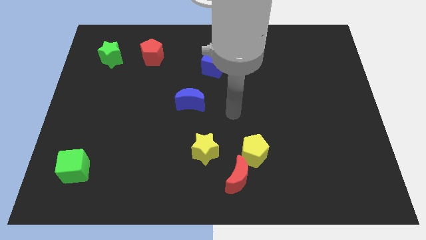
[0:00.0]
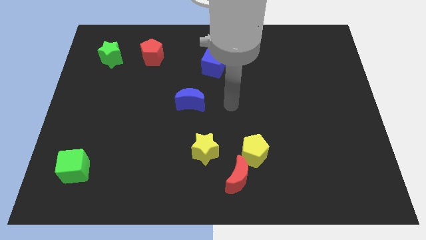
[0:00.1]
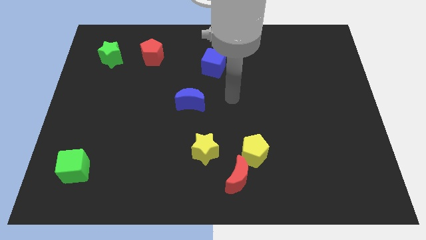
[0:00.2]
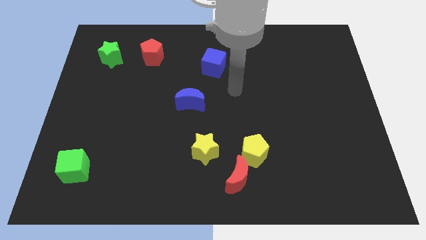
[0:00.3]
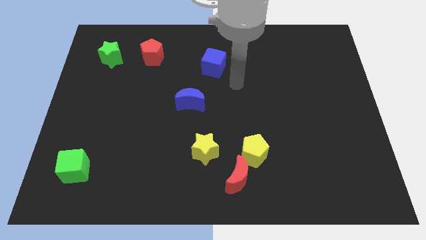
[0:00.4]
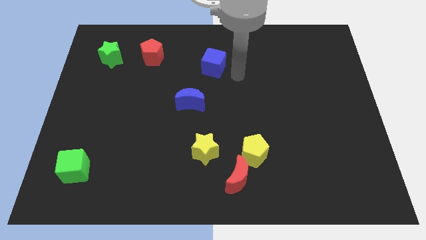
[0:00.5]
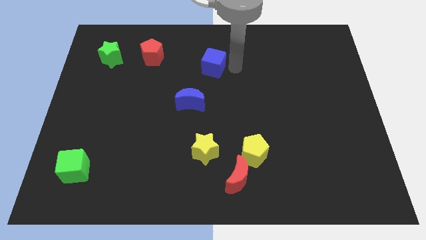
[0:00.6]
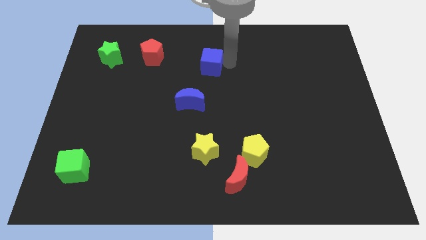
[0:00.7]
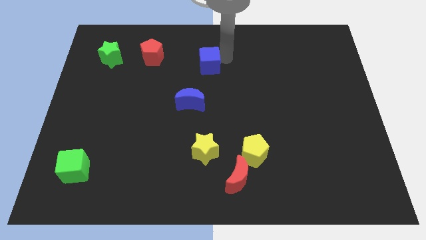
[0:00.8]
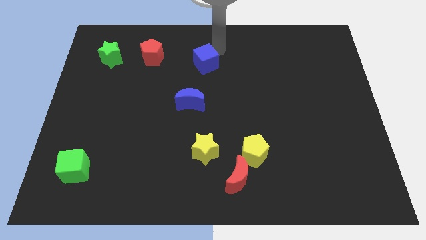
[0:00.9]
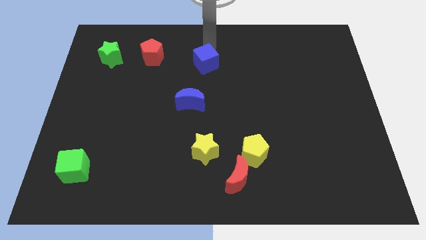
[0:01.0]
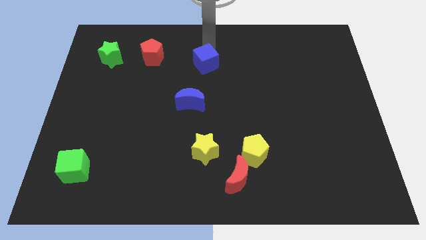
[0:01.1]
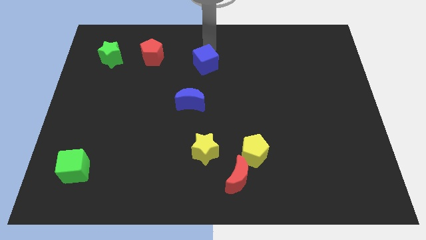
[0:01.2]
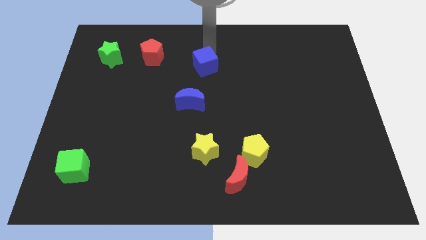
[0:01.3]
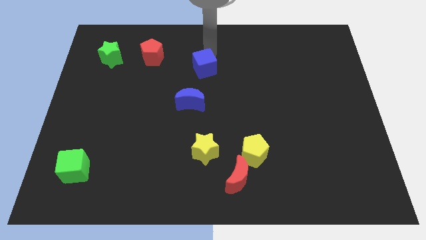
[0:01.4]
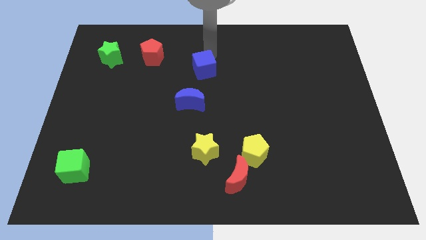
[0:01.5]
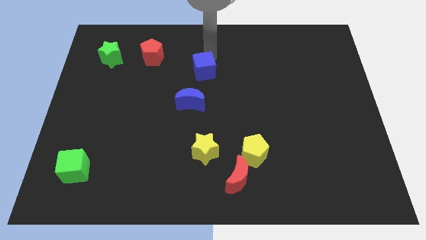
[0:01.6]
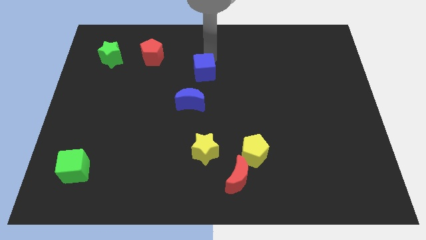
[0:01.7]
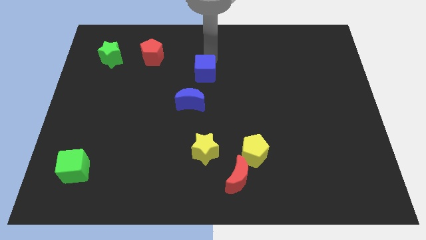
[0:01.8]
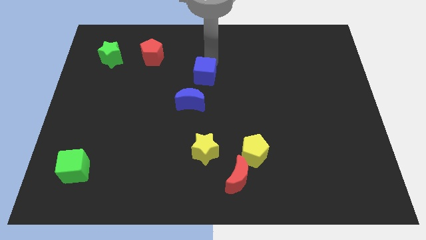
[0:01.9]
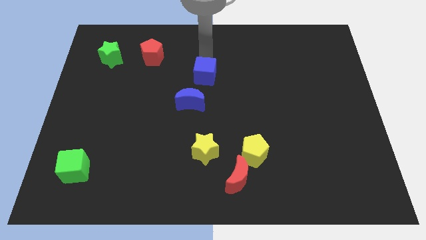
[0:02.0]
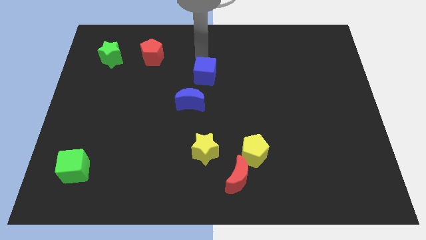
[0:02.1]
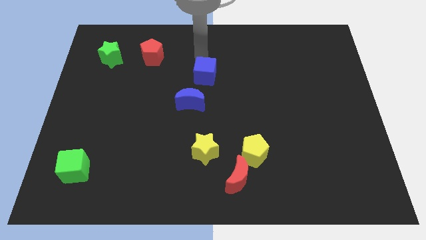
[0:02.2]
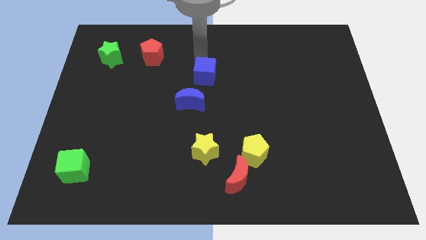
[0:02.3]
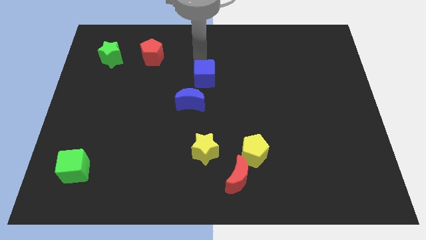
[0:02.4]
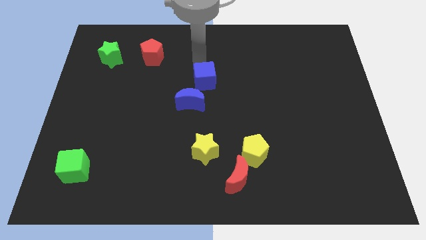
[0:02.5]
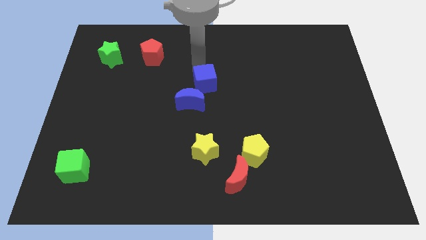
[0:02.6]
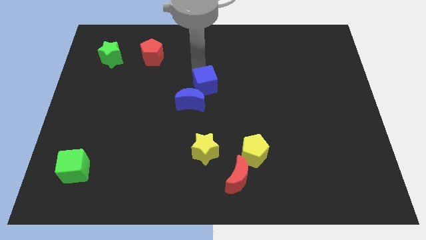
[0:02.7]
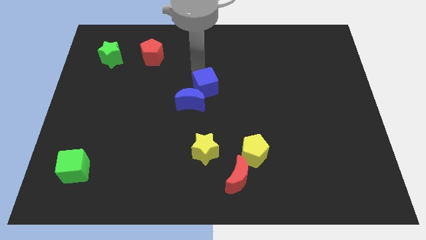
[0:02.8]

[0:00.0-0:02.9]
slightly push the blue cube down

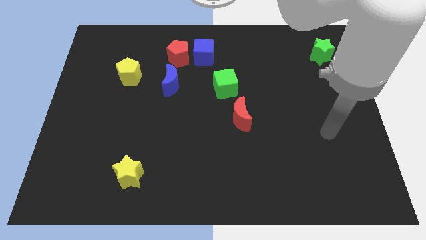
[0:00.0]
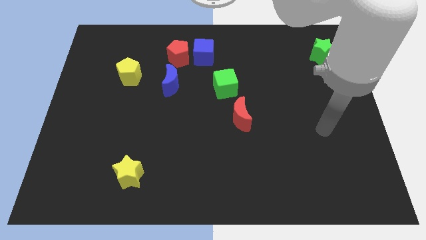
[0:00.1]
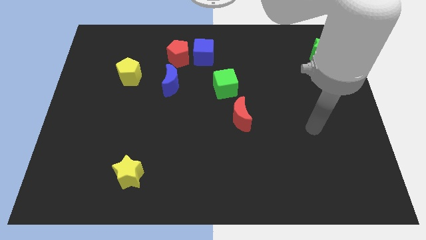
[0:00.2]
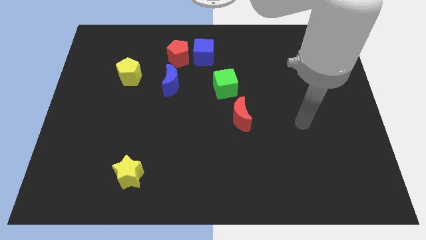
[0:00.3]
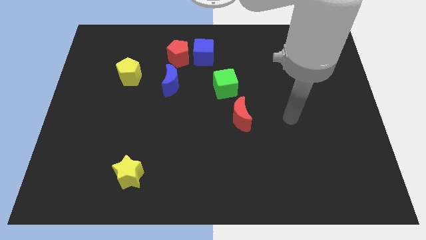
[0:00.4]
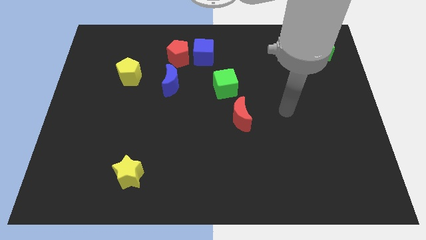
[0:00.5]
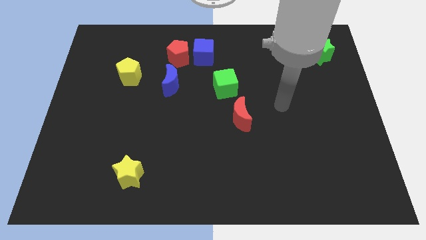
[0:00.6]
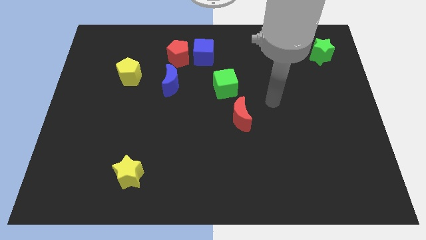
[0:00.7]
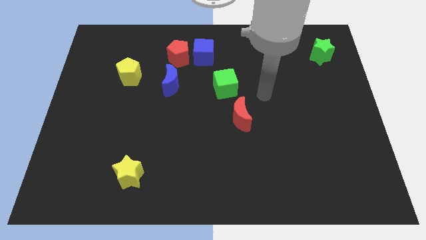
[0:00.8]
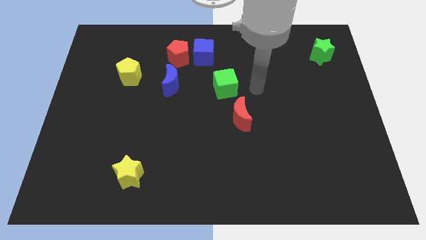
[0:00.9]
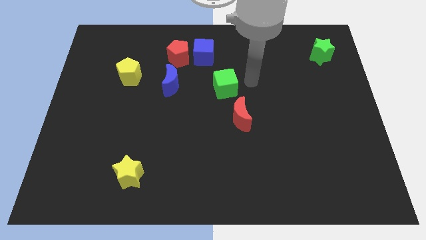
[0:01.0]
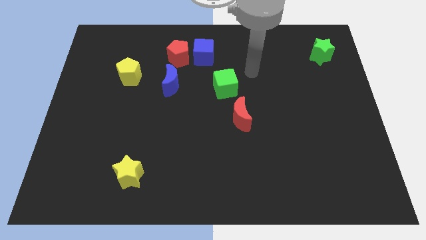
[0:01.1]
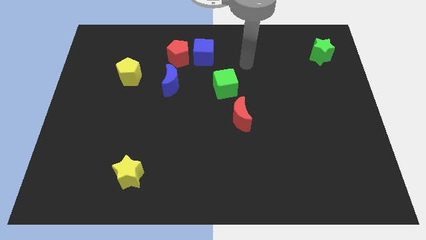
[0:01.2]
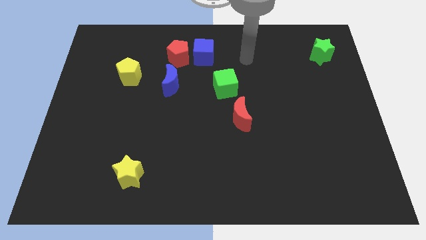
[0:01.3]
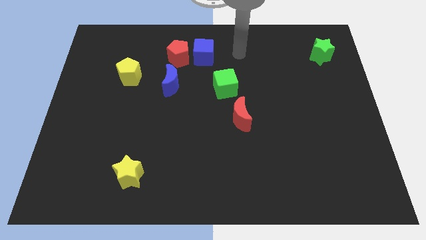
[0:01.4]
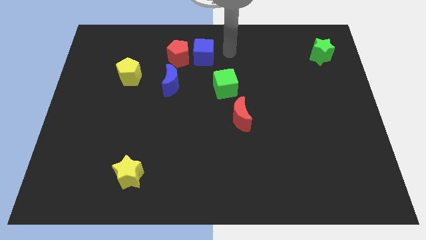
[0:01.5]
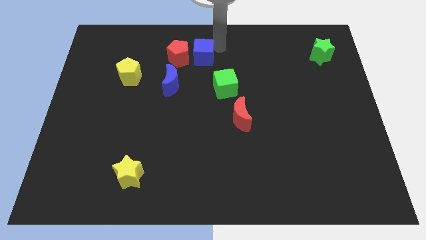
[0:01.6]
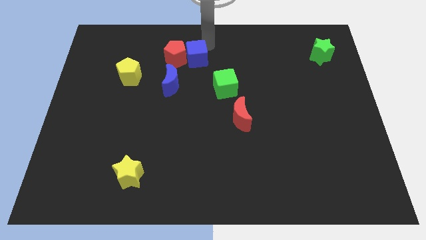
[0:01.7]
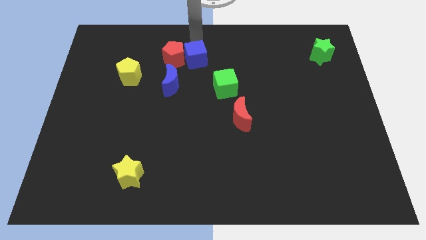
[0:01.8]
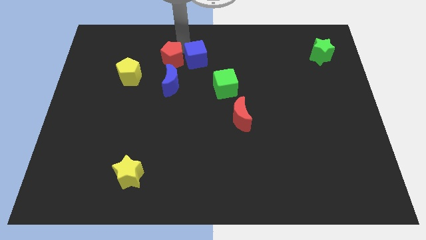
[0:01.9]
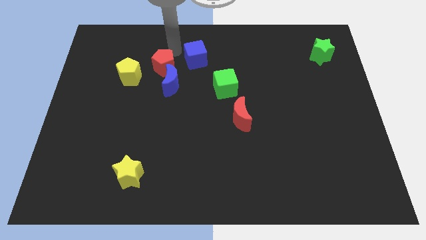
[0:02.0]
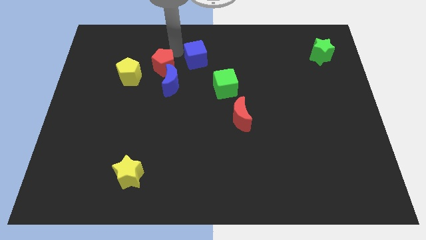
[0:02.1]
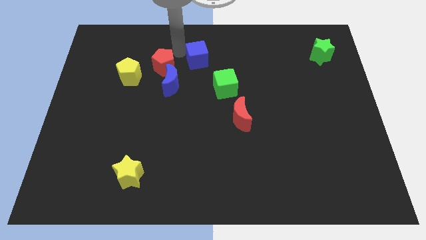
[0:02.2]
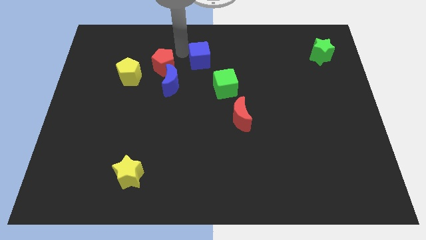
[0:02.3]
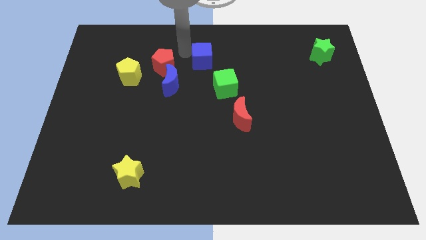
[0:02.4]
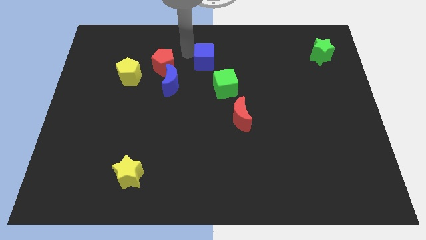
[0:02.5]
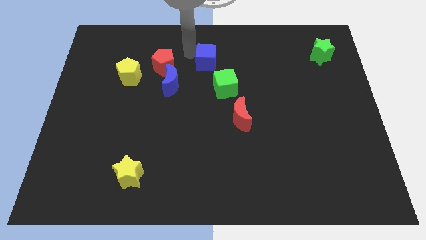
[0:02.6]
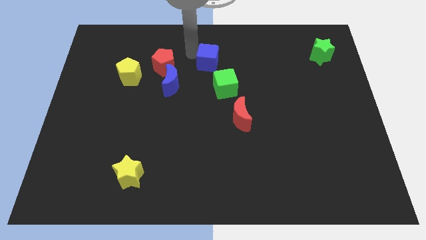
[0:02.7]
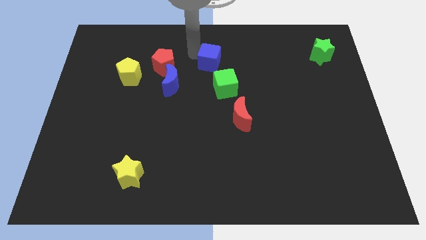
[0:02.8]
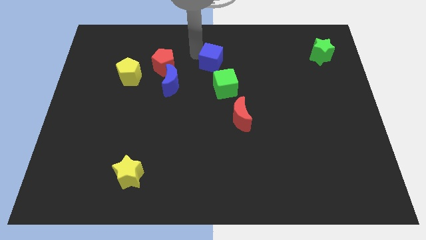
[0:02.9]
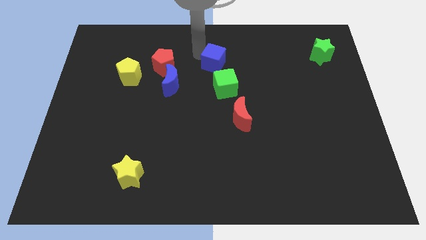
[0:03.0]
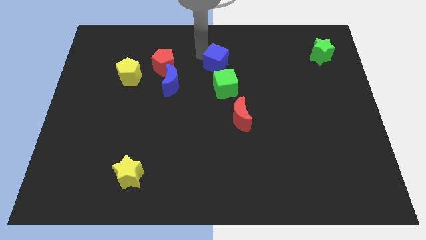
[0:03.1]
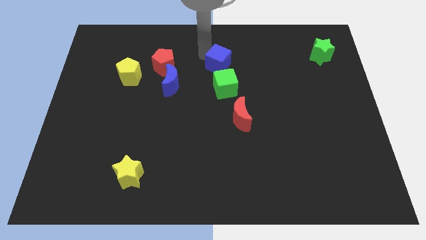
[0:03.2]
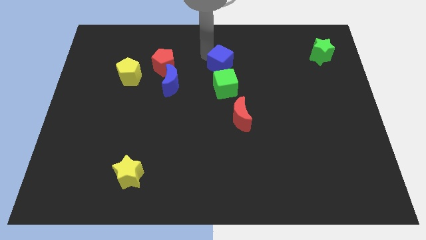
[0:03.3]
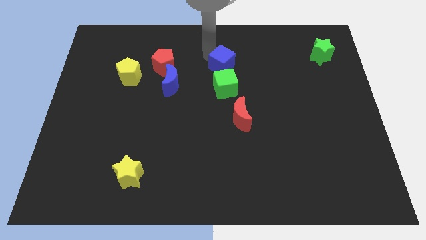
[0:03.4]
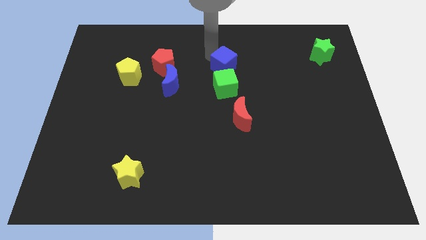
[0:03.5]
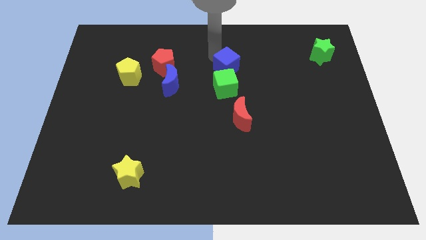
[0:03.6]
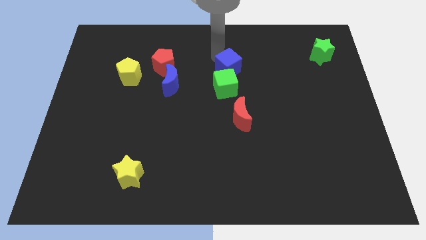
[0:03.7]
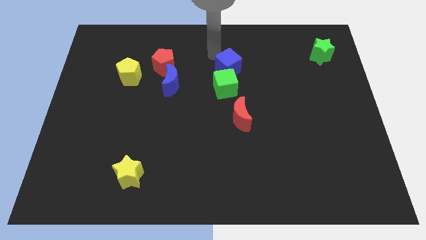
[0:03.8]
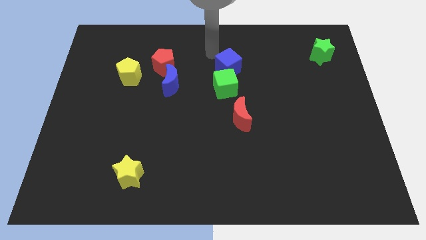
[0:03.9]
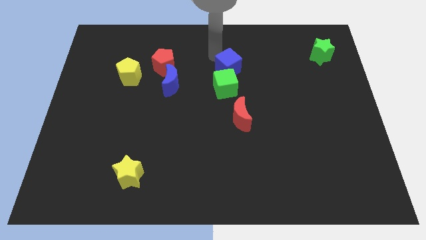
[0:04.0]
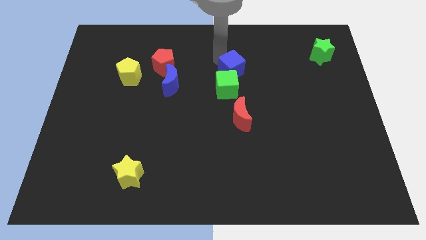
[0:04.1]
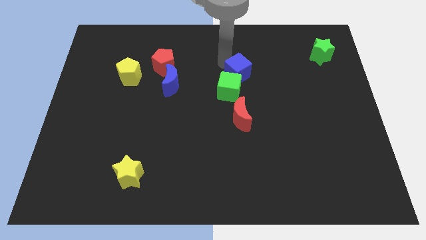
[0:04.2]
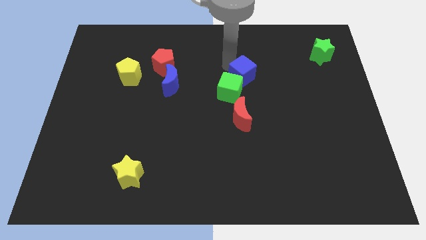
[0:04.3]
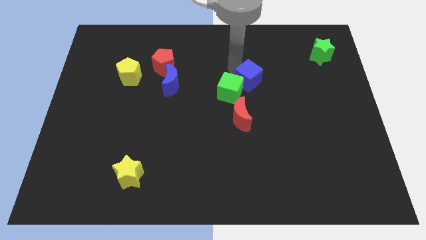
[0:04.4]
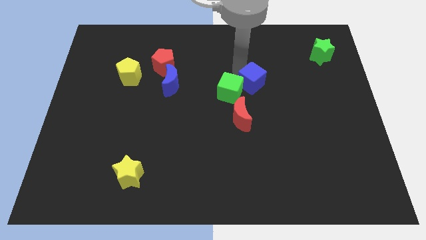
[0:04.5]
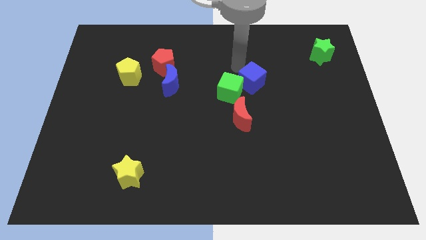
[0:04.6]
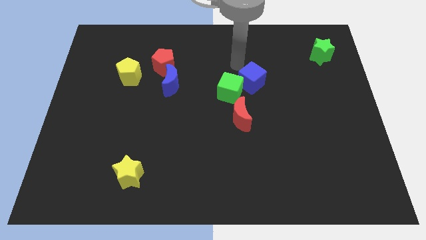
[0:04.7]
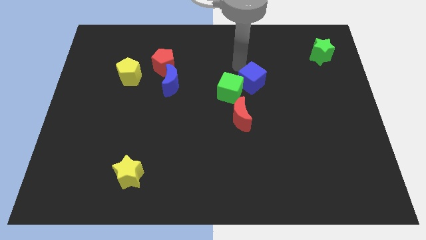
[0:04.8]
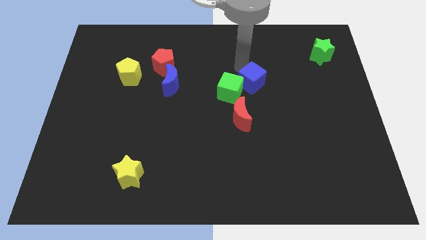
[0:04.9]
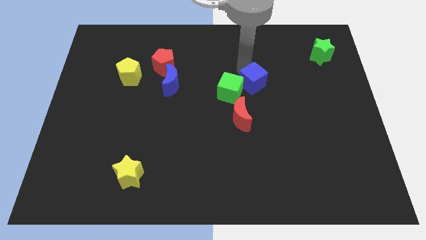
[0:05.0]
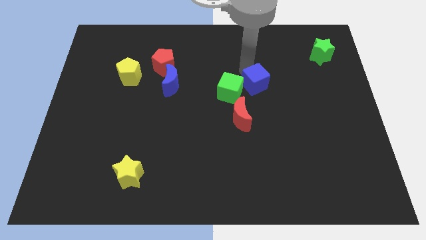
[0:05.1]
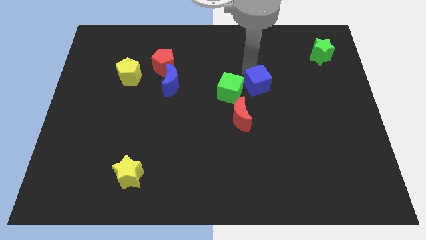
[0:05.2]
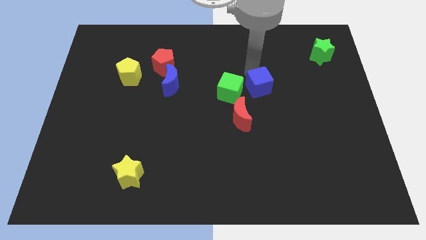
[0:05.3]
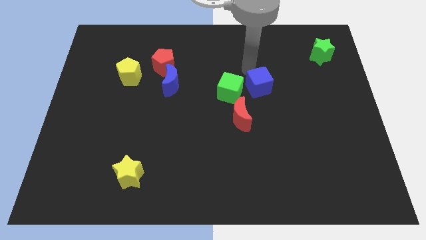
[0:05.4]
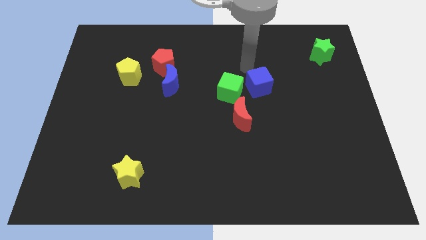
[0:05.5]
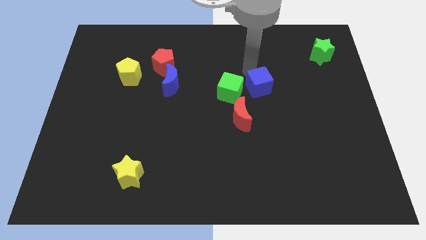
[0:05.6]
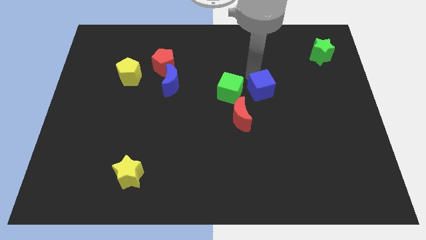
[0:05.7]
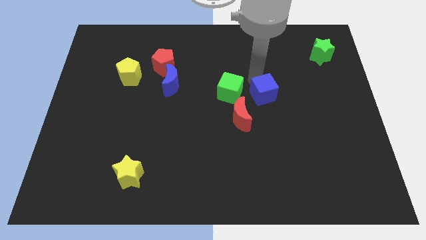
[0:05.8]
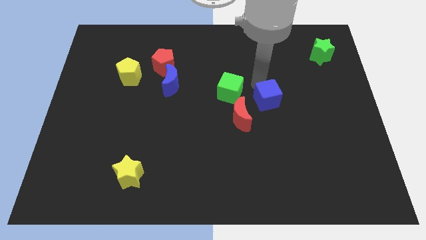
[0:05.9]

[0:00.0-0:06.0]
move the blue cube downwards and right
